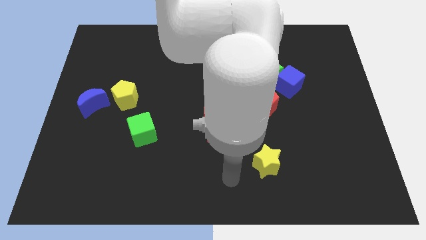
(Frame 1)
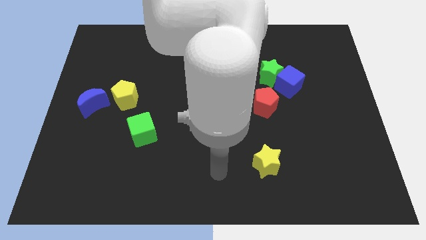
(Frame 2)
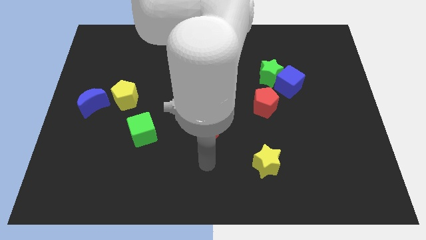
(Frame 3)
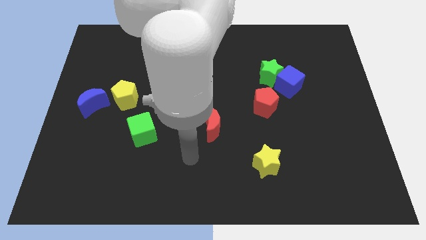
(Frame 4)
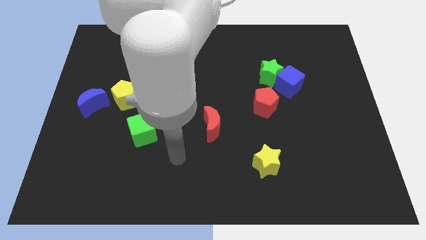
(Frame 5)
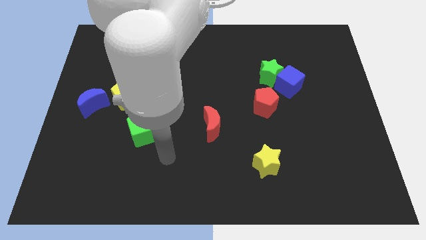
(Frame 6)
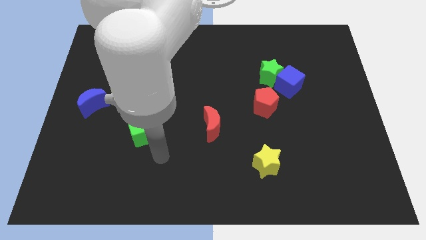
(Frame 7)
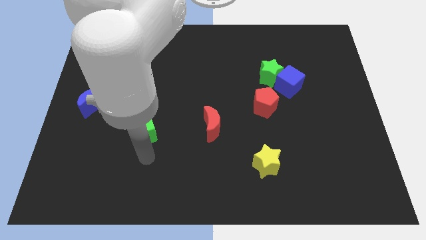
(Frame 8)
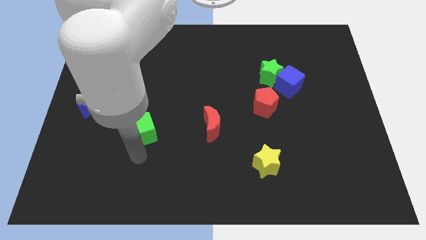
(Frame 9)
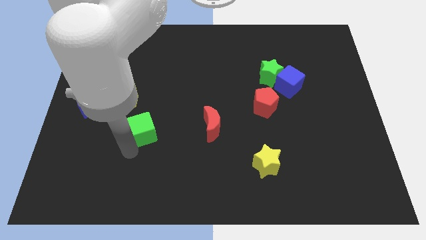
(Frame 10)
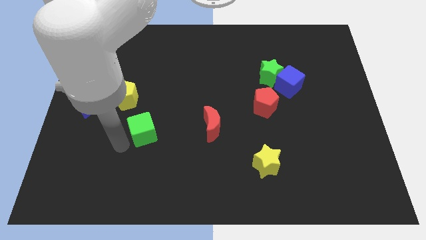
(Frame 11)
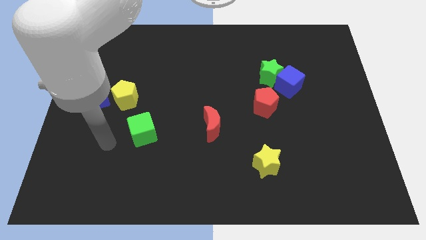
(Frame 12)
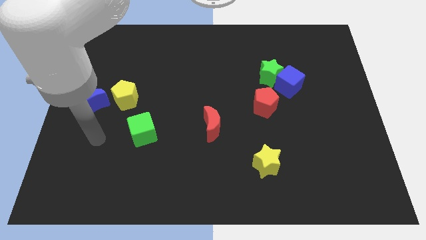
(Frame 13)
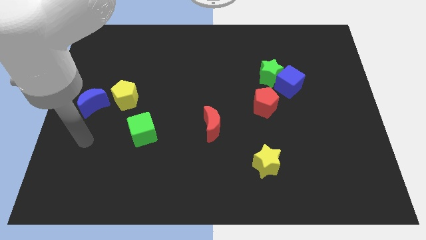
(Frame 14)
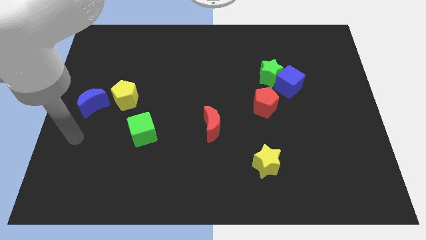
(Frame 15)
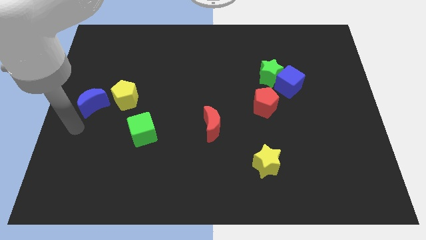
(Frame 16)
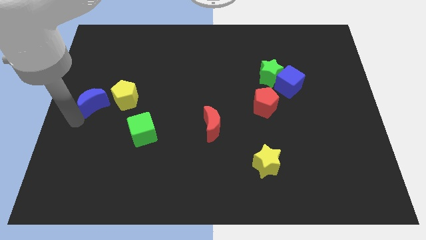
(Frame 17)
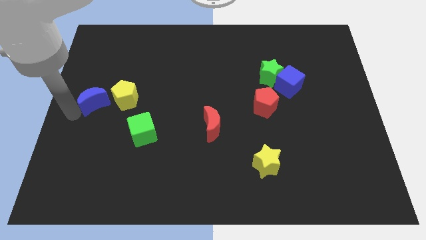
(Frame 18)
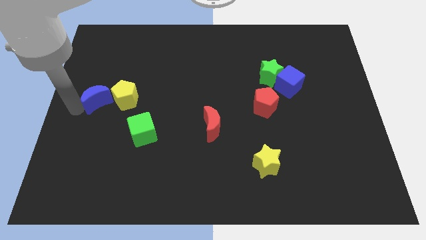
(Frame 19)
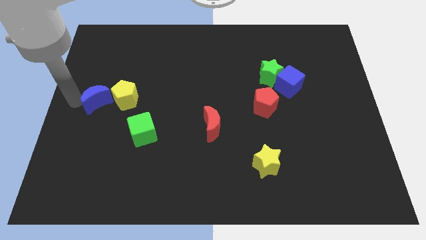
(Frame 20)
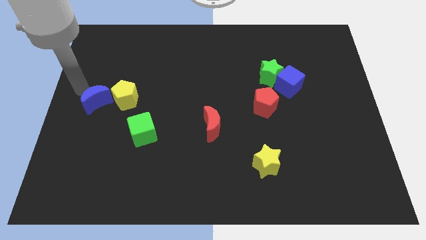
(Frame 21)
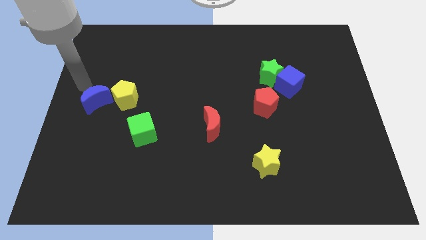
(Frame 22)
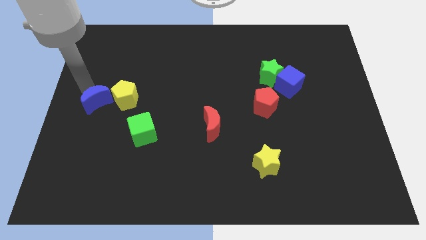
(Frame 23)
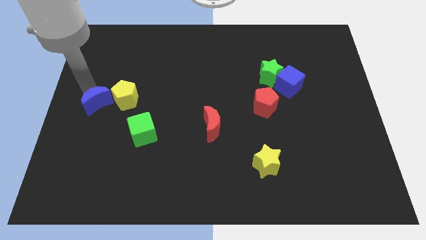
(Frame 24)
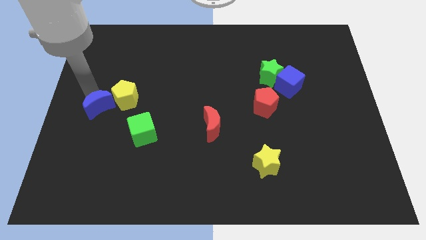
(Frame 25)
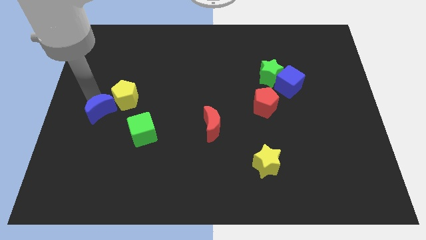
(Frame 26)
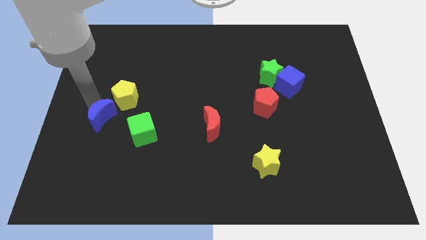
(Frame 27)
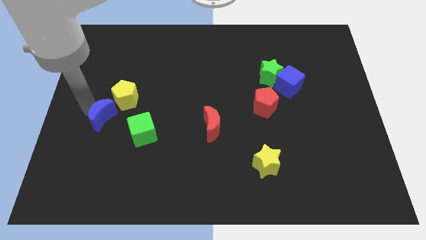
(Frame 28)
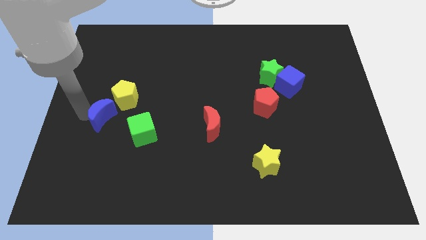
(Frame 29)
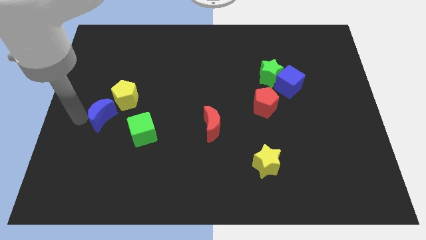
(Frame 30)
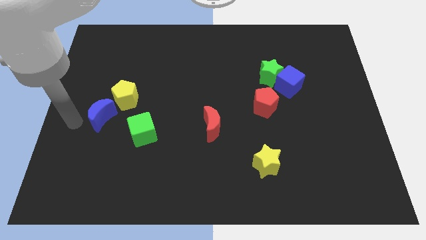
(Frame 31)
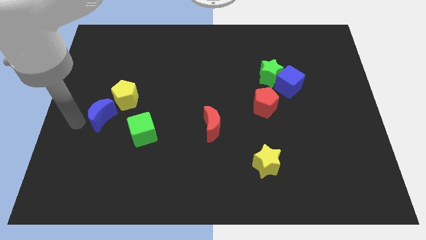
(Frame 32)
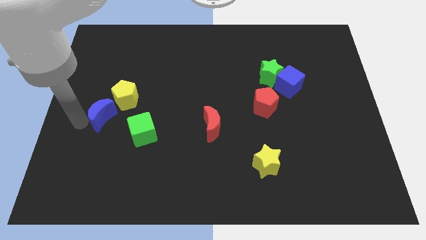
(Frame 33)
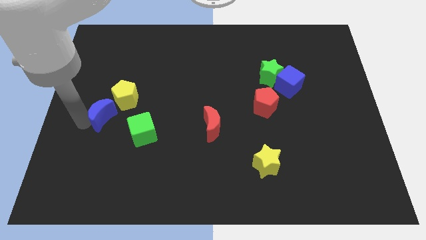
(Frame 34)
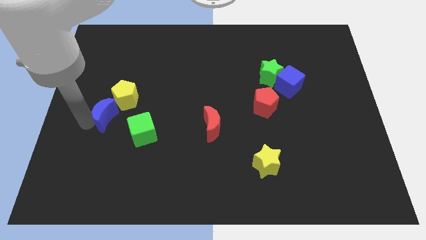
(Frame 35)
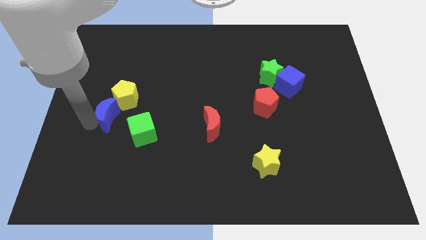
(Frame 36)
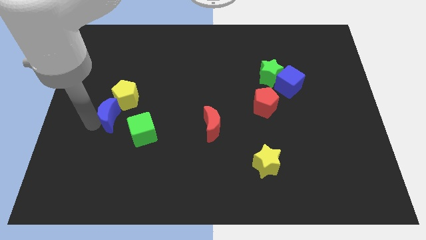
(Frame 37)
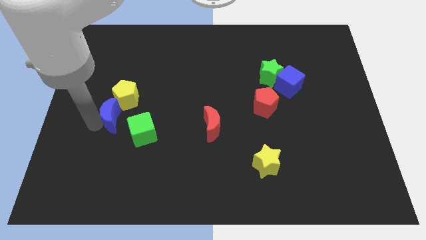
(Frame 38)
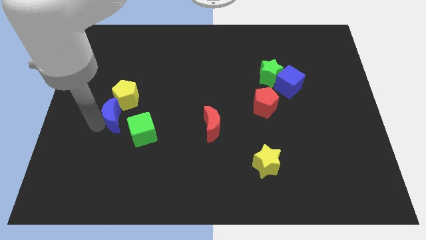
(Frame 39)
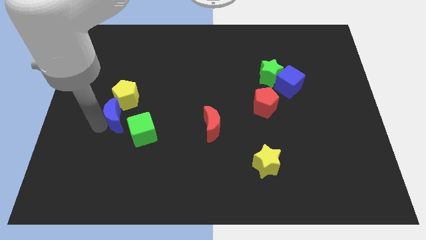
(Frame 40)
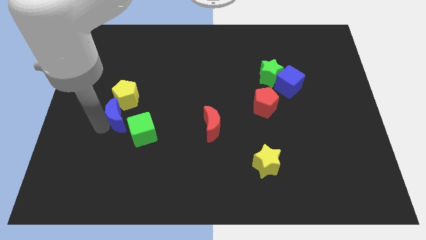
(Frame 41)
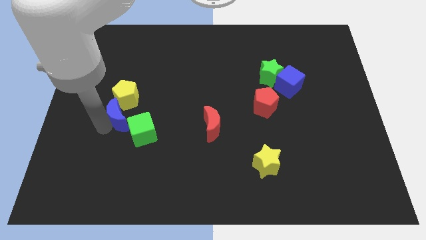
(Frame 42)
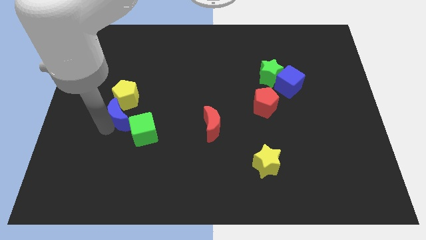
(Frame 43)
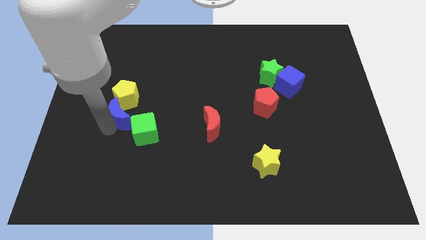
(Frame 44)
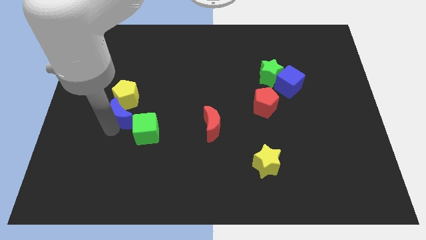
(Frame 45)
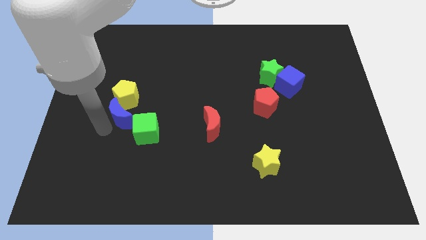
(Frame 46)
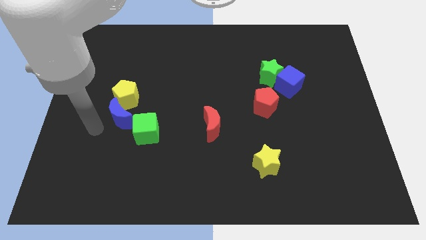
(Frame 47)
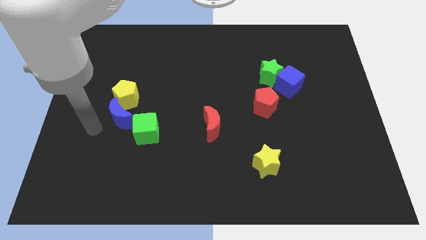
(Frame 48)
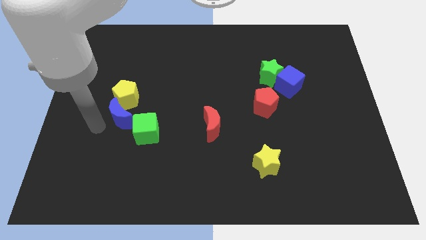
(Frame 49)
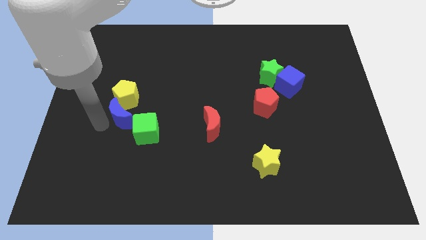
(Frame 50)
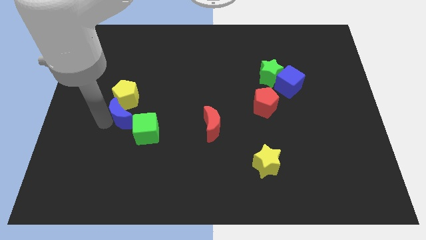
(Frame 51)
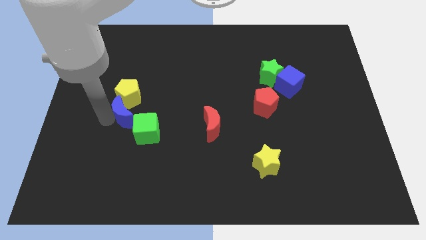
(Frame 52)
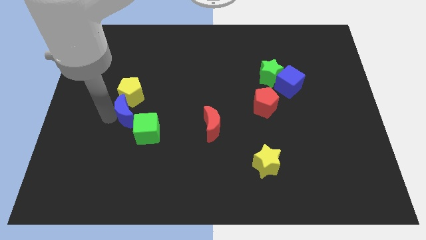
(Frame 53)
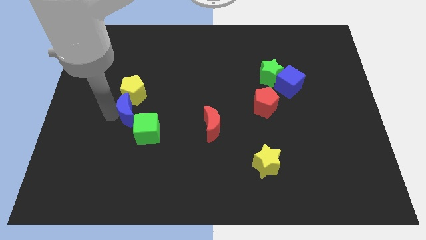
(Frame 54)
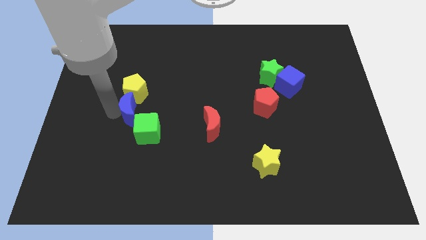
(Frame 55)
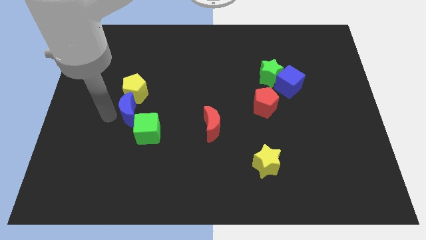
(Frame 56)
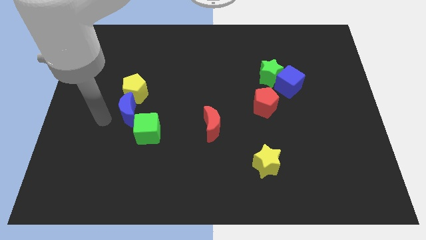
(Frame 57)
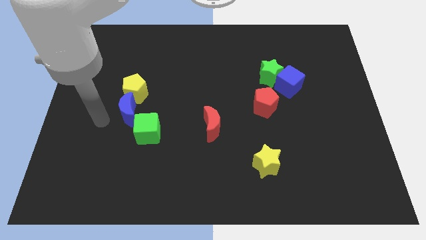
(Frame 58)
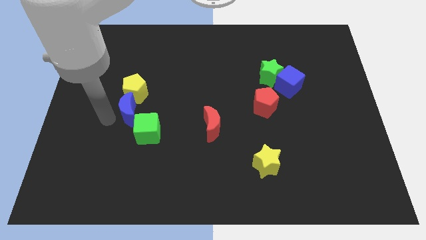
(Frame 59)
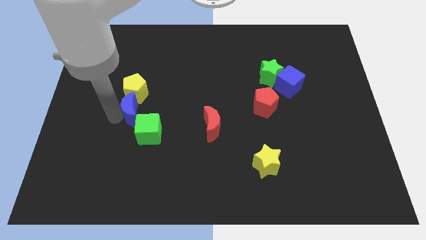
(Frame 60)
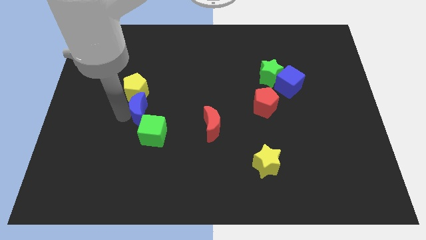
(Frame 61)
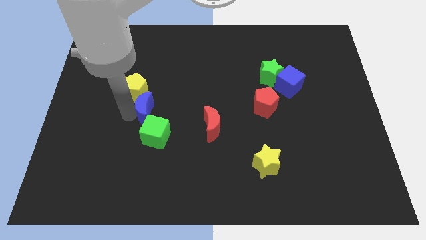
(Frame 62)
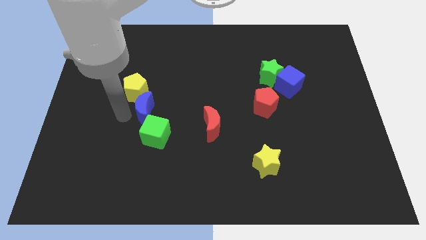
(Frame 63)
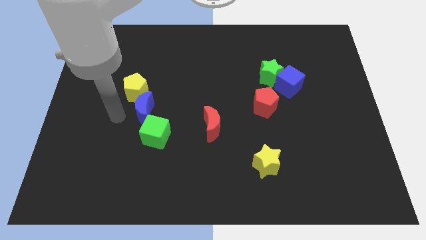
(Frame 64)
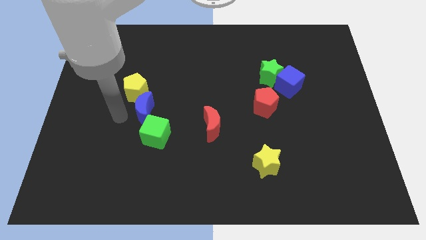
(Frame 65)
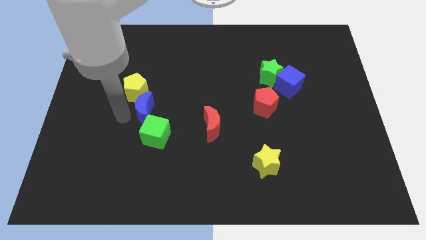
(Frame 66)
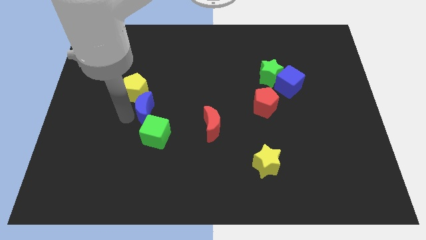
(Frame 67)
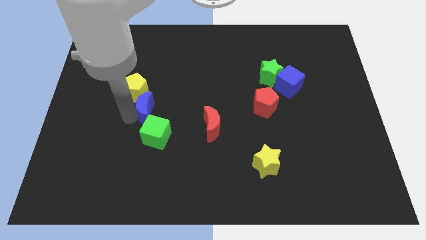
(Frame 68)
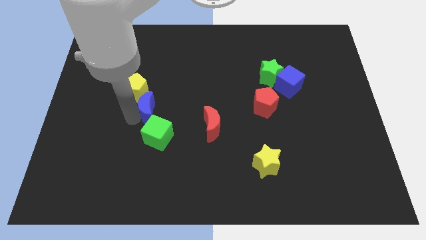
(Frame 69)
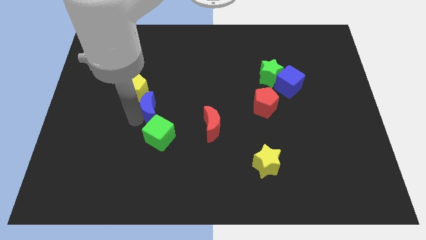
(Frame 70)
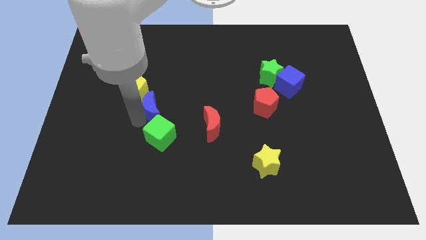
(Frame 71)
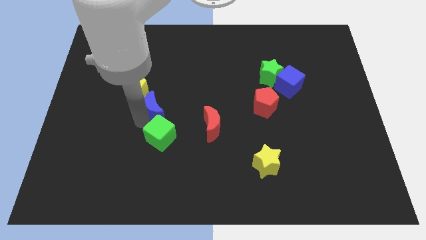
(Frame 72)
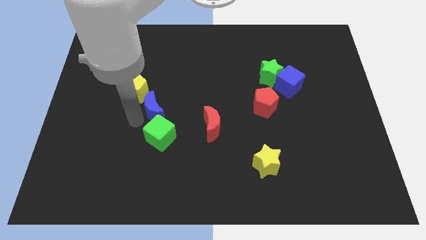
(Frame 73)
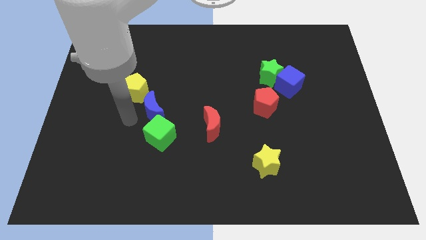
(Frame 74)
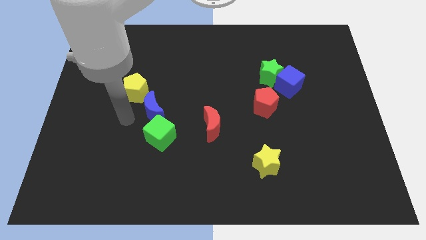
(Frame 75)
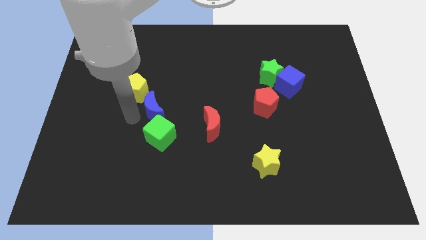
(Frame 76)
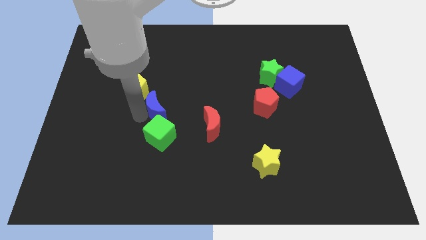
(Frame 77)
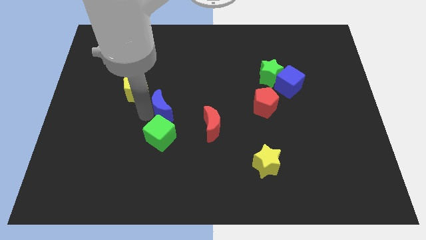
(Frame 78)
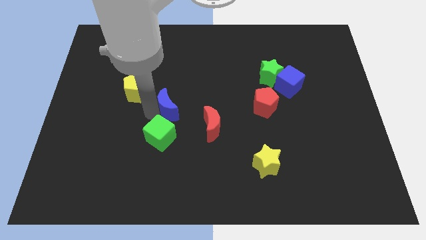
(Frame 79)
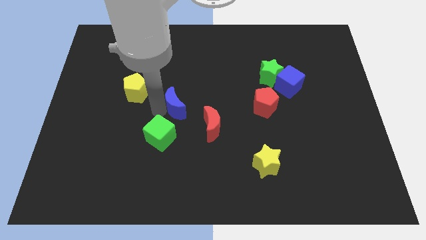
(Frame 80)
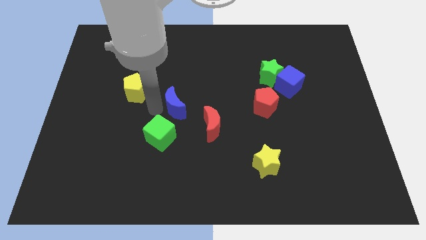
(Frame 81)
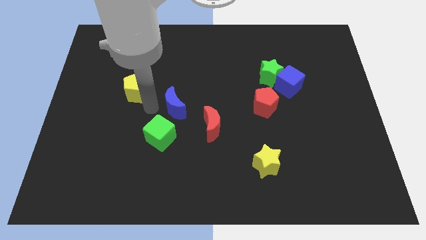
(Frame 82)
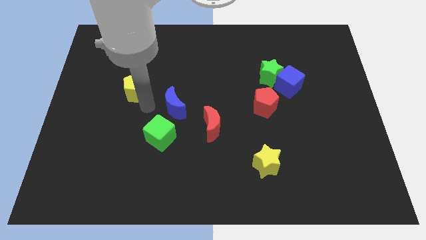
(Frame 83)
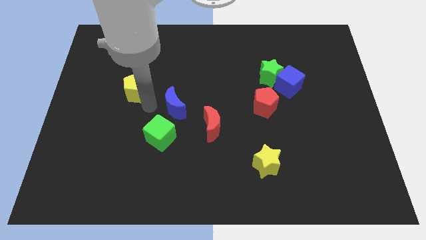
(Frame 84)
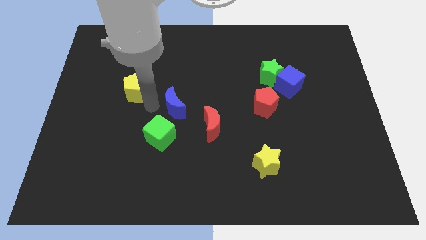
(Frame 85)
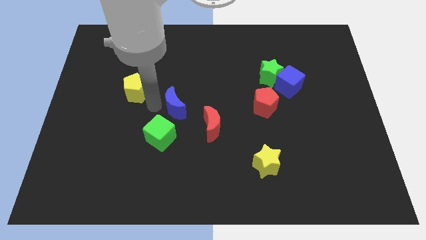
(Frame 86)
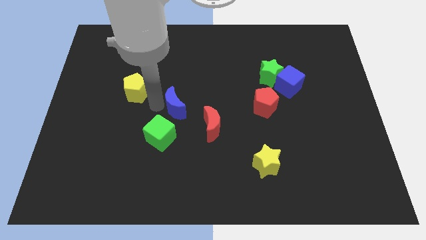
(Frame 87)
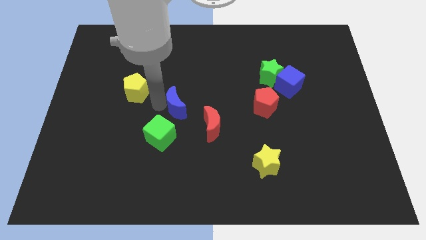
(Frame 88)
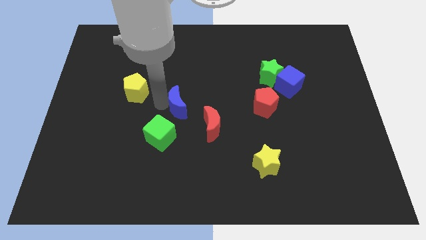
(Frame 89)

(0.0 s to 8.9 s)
move the blue moon right
